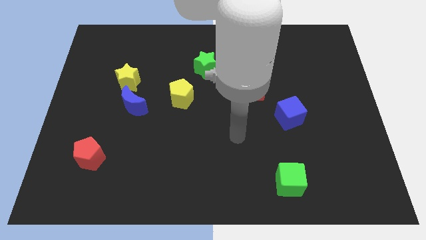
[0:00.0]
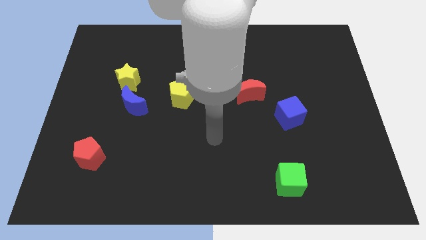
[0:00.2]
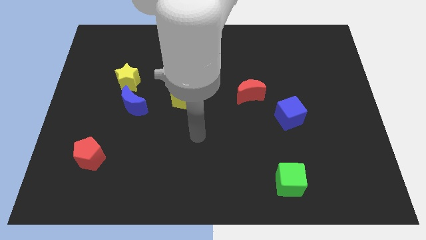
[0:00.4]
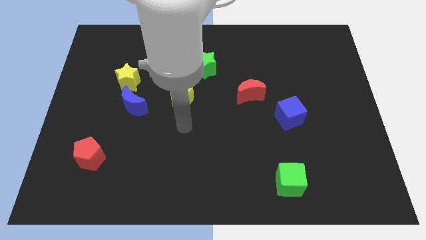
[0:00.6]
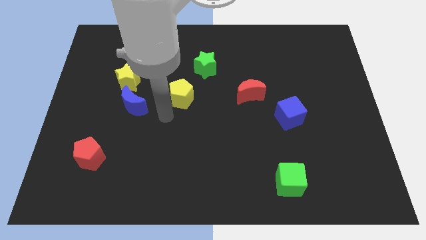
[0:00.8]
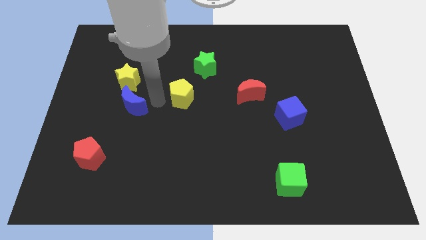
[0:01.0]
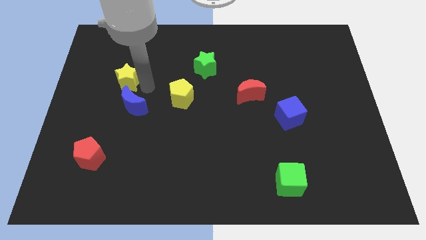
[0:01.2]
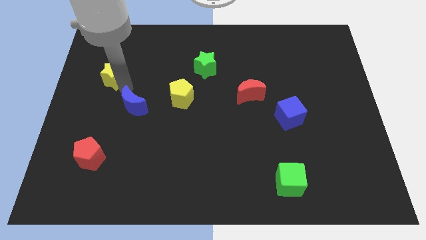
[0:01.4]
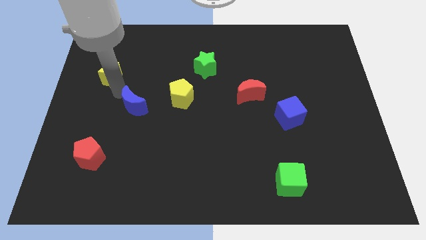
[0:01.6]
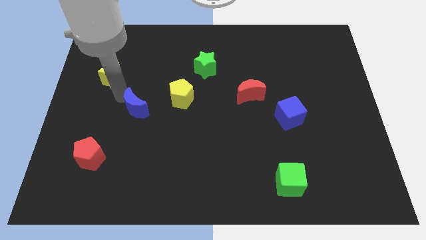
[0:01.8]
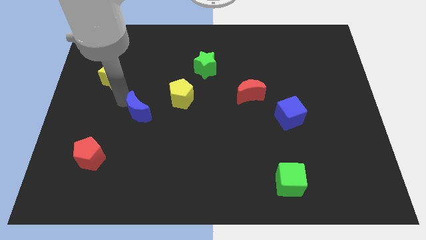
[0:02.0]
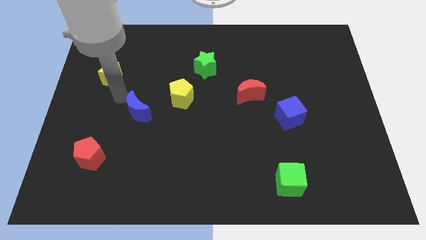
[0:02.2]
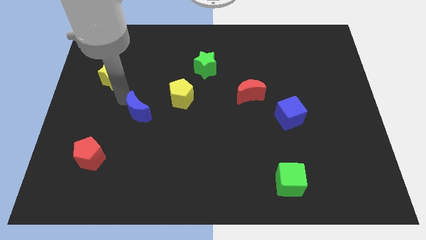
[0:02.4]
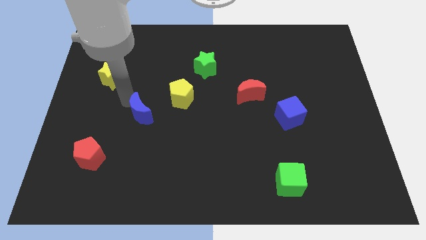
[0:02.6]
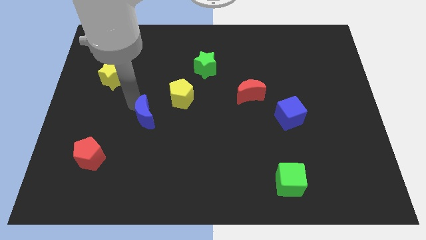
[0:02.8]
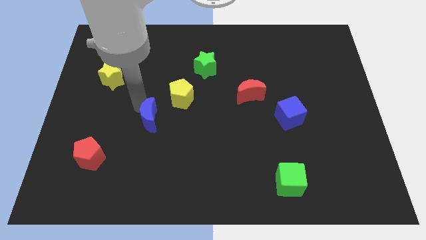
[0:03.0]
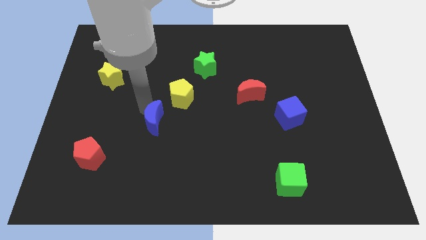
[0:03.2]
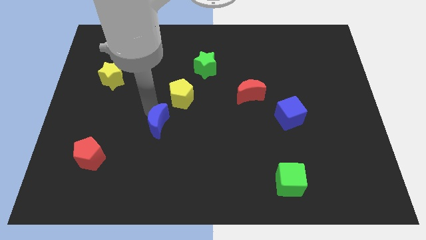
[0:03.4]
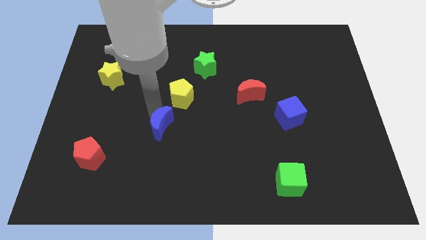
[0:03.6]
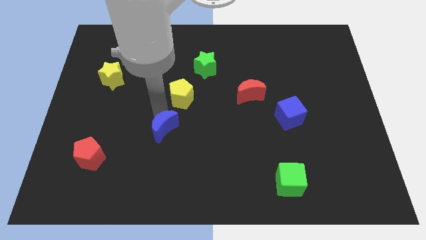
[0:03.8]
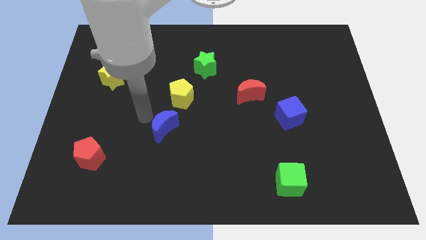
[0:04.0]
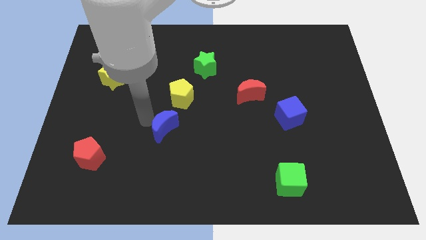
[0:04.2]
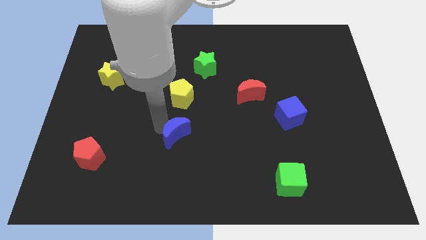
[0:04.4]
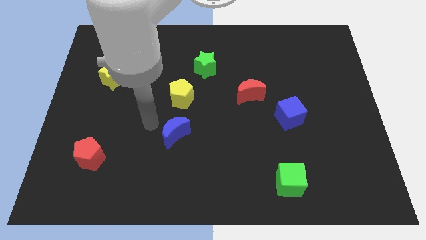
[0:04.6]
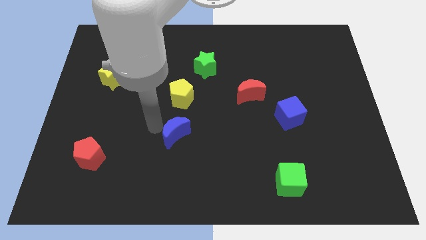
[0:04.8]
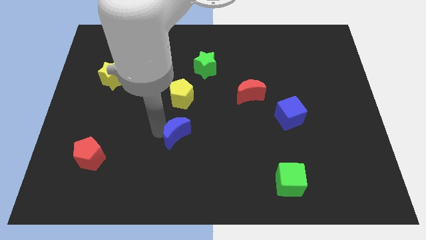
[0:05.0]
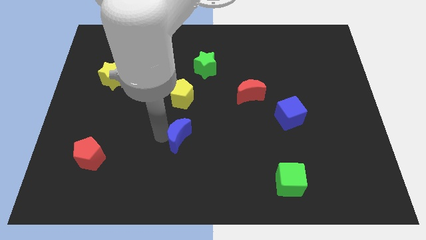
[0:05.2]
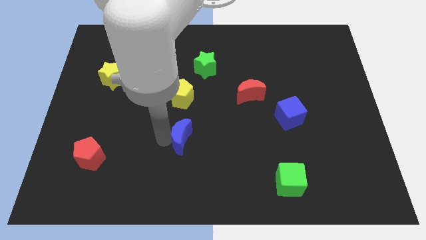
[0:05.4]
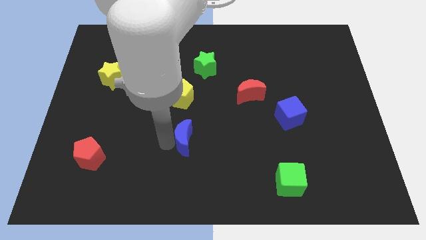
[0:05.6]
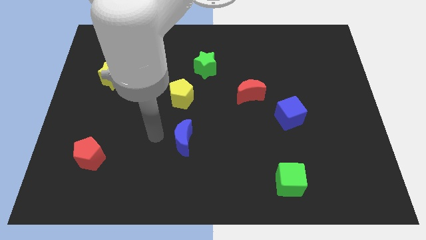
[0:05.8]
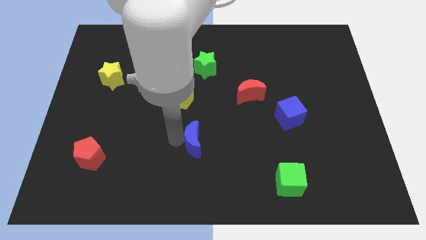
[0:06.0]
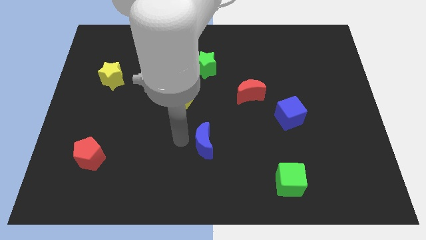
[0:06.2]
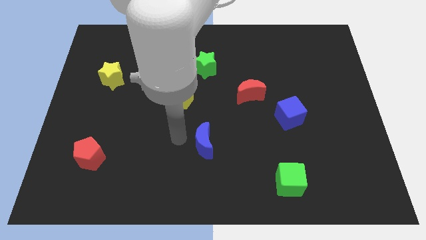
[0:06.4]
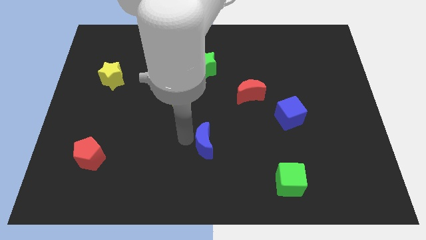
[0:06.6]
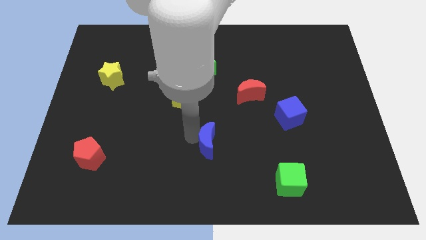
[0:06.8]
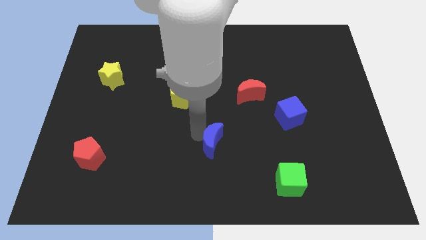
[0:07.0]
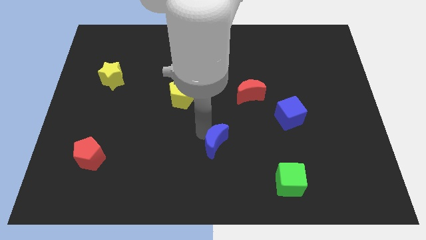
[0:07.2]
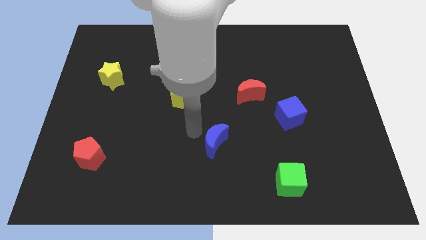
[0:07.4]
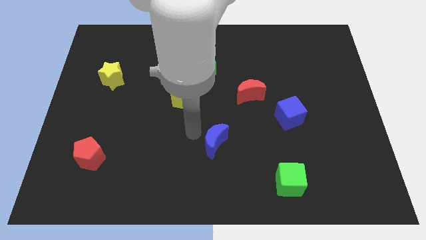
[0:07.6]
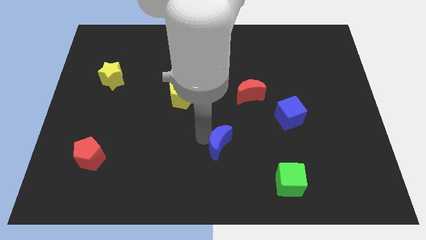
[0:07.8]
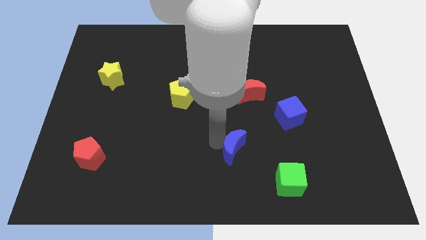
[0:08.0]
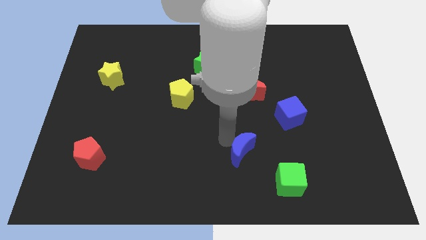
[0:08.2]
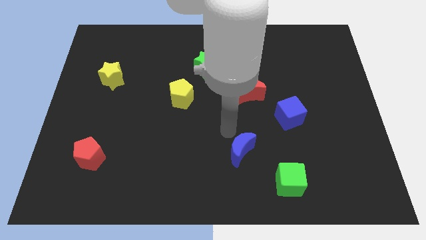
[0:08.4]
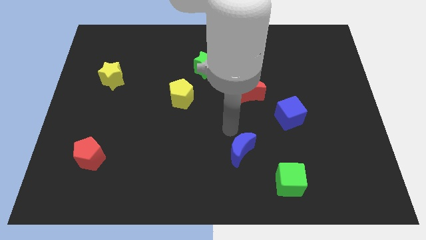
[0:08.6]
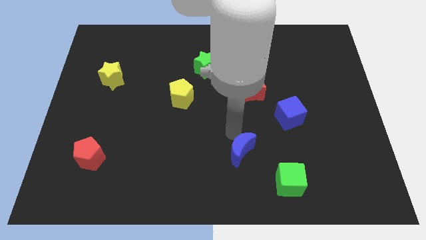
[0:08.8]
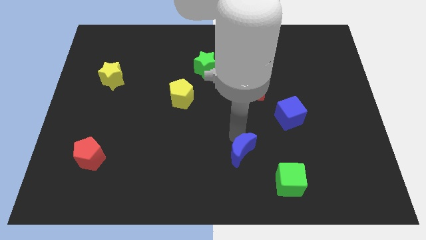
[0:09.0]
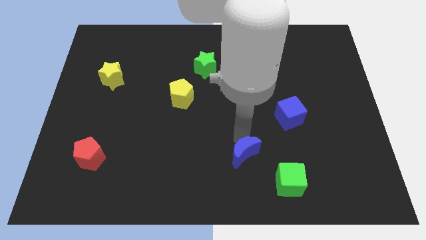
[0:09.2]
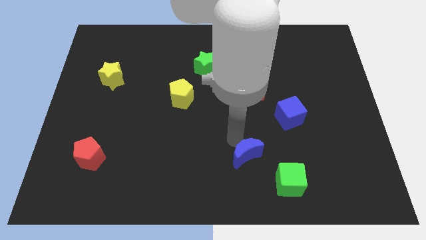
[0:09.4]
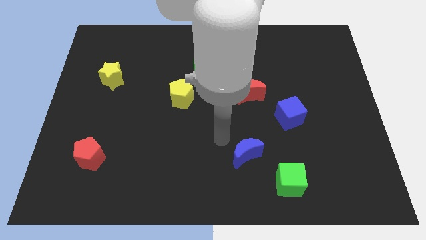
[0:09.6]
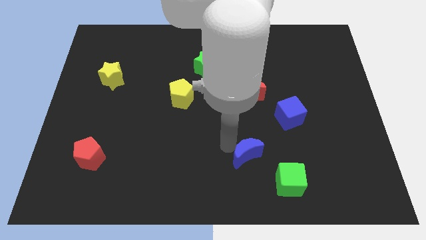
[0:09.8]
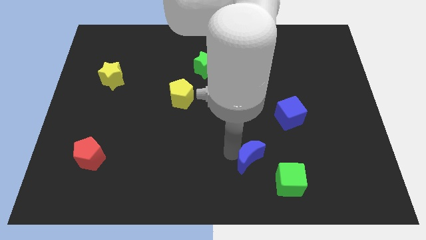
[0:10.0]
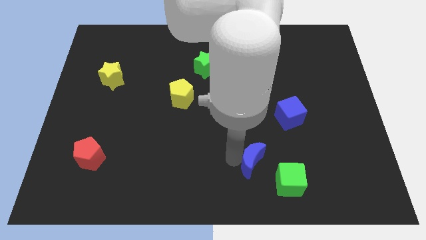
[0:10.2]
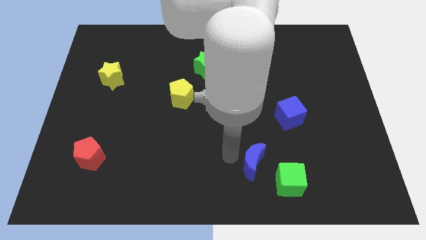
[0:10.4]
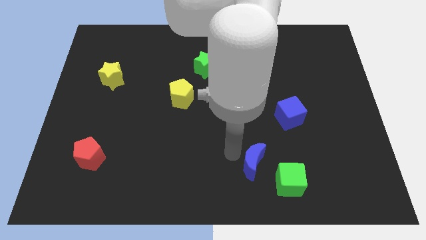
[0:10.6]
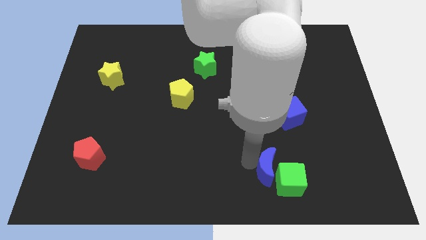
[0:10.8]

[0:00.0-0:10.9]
push the blue moon to the green cube

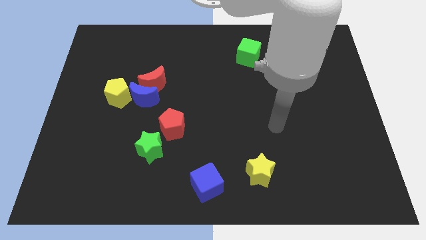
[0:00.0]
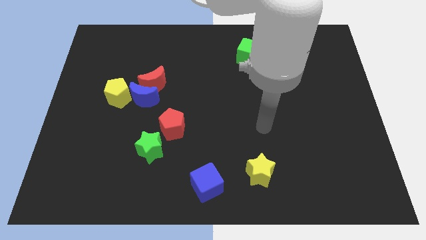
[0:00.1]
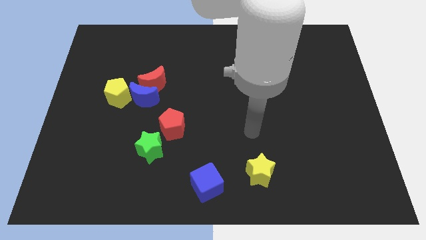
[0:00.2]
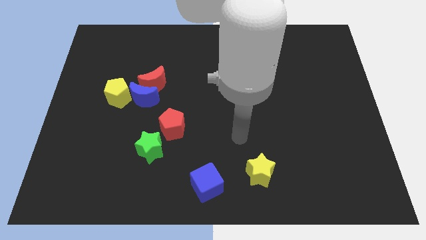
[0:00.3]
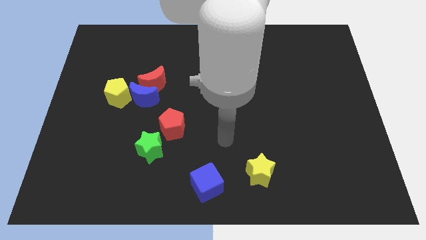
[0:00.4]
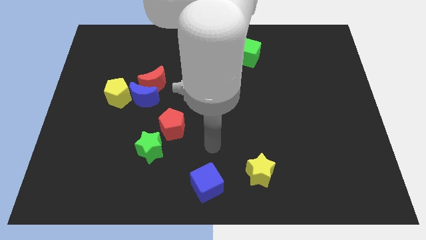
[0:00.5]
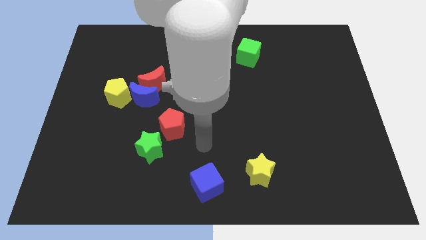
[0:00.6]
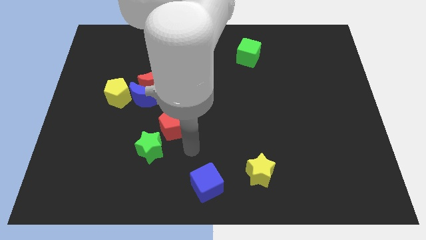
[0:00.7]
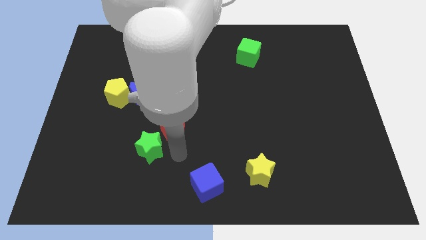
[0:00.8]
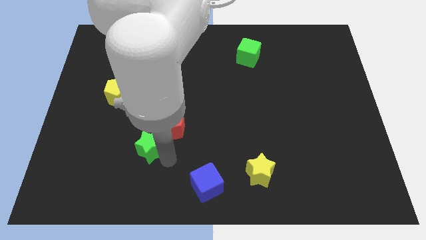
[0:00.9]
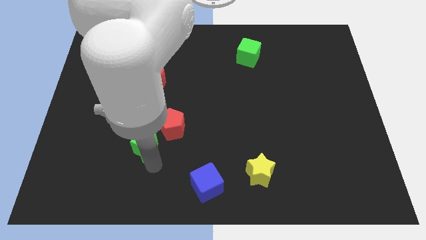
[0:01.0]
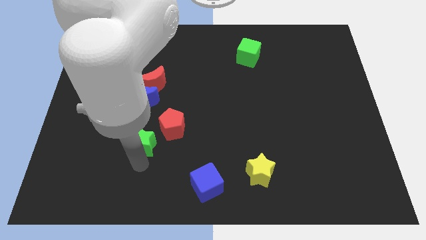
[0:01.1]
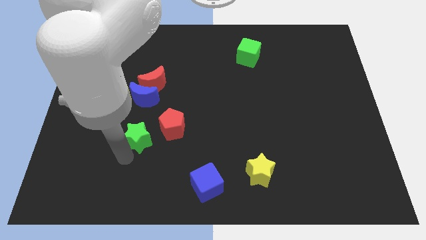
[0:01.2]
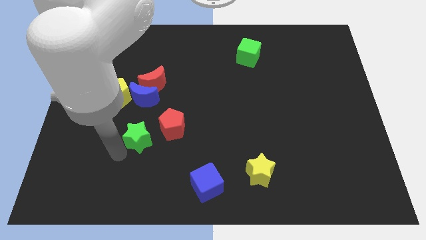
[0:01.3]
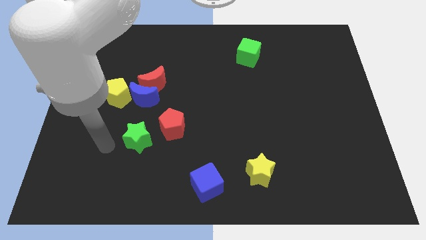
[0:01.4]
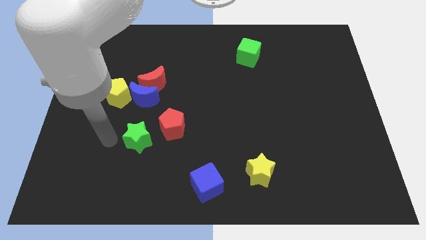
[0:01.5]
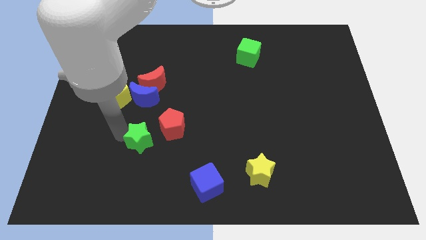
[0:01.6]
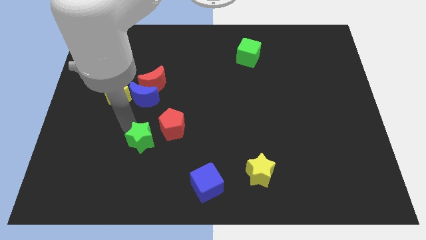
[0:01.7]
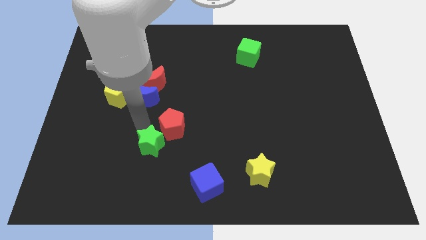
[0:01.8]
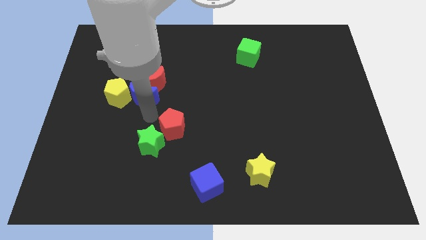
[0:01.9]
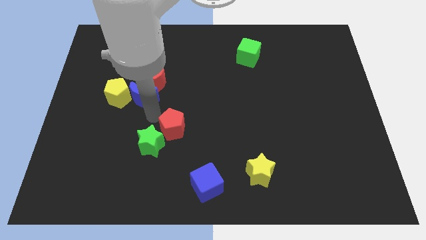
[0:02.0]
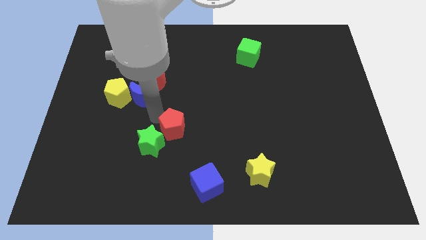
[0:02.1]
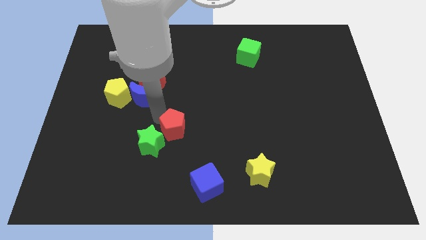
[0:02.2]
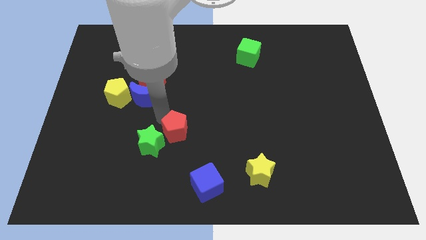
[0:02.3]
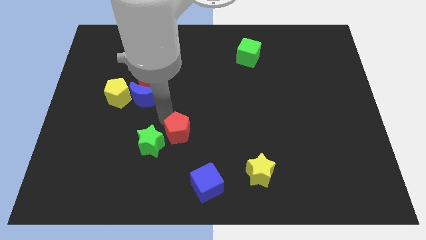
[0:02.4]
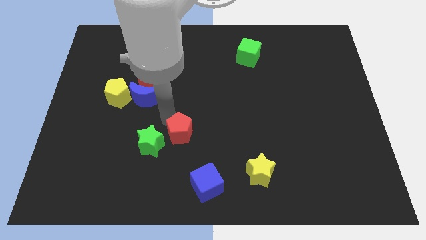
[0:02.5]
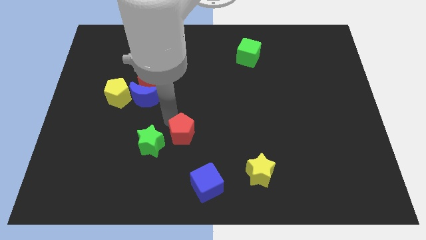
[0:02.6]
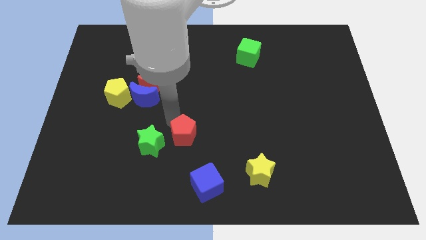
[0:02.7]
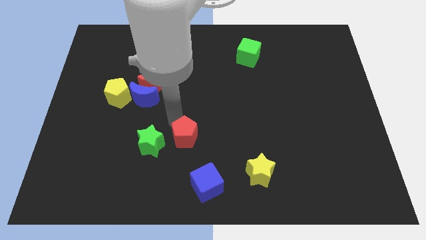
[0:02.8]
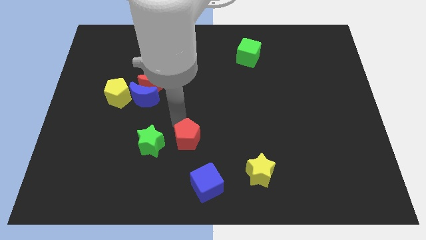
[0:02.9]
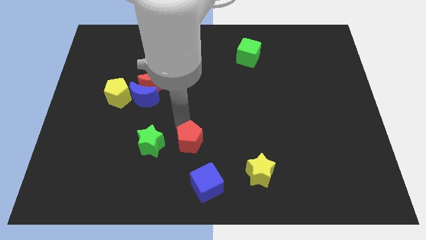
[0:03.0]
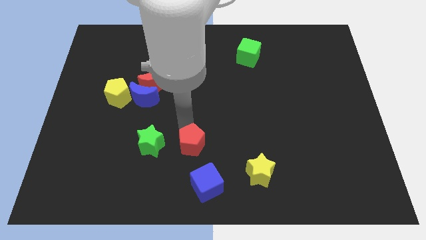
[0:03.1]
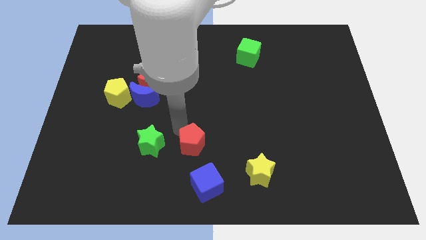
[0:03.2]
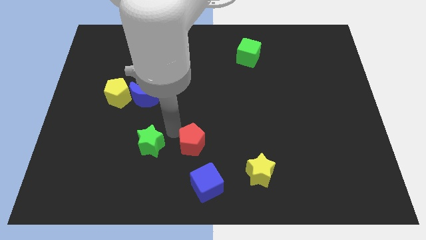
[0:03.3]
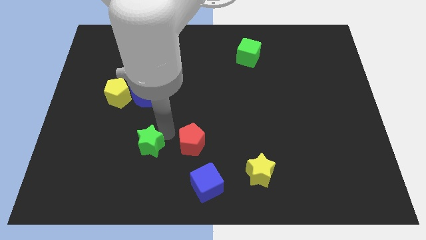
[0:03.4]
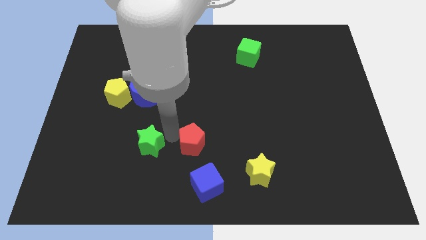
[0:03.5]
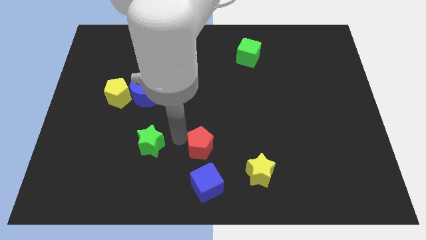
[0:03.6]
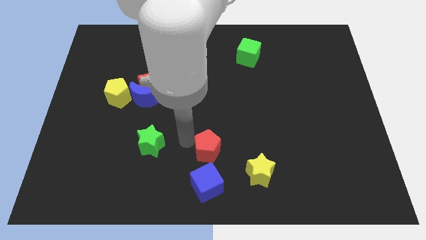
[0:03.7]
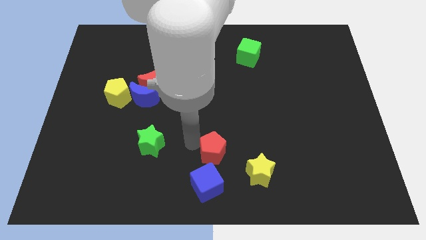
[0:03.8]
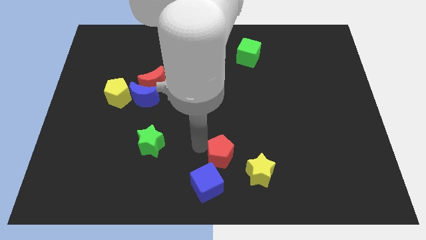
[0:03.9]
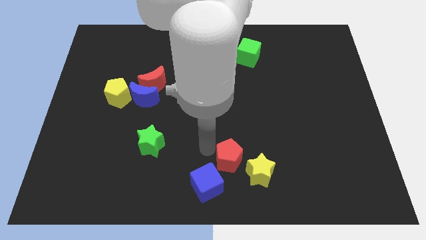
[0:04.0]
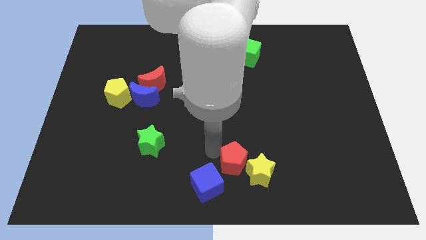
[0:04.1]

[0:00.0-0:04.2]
put the red pentagon next to the yellow star
